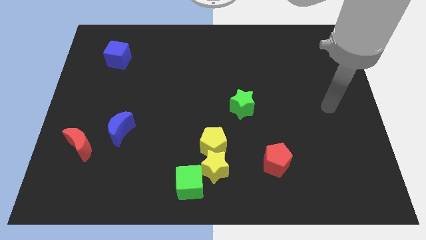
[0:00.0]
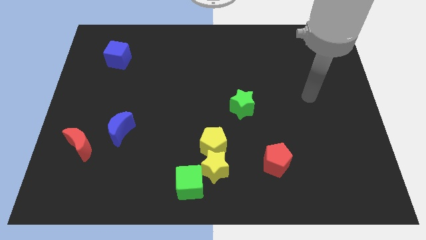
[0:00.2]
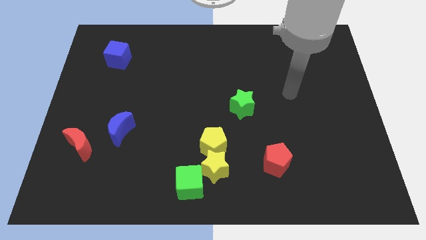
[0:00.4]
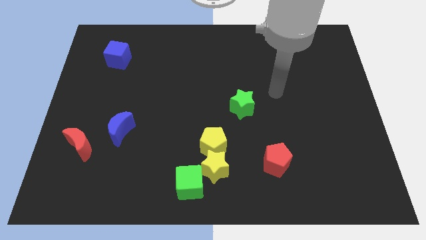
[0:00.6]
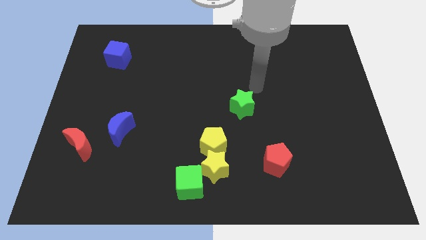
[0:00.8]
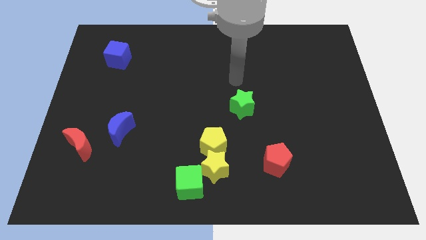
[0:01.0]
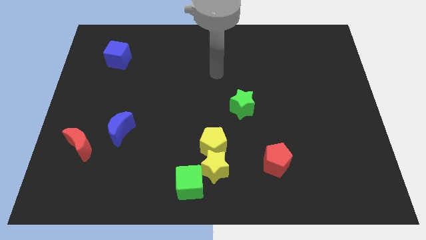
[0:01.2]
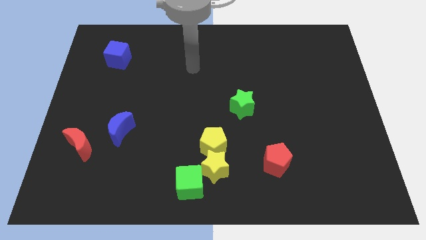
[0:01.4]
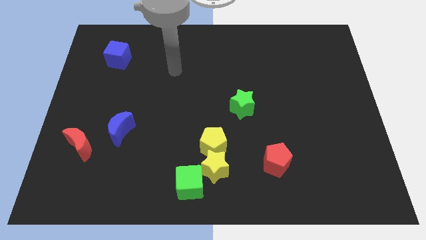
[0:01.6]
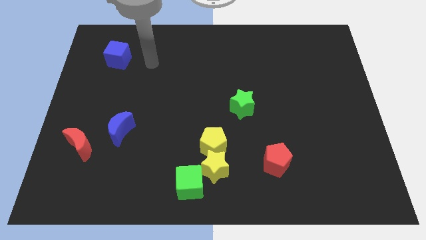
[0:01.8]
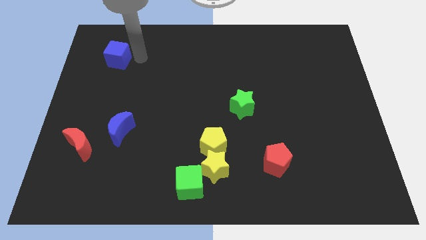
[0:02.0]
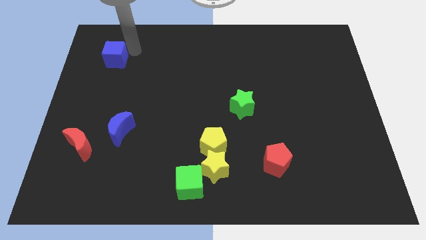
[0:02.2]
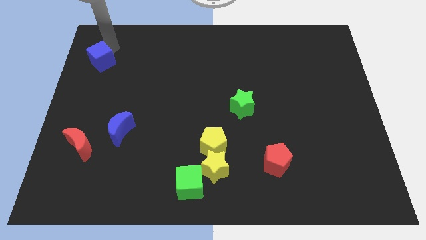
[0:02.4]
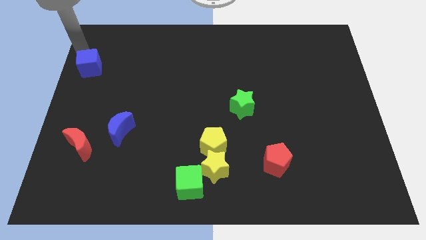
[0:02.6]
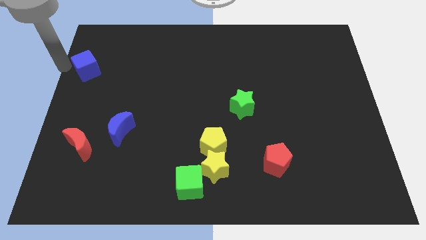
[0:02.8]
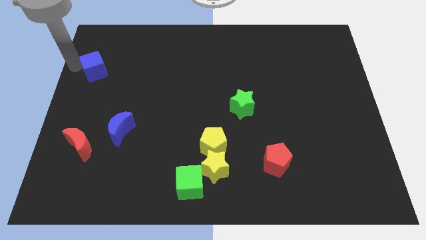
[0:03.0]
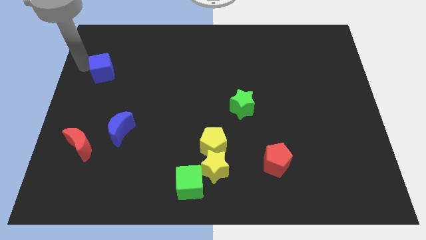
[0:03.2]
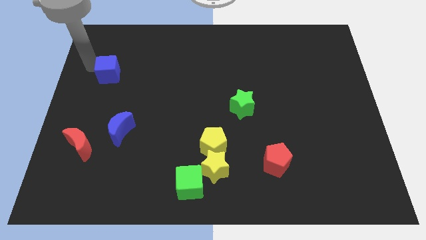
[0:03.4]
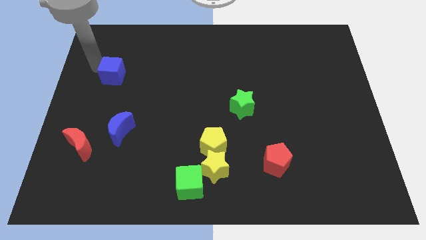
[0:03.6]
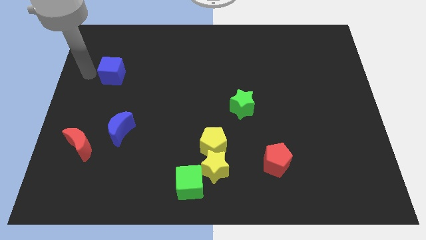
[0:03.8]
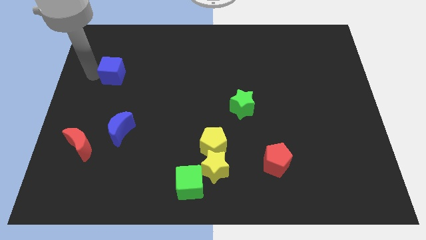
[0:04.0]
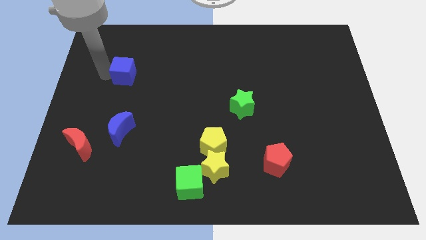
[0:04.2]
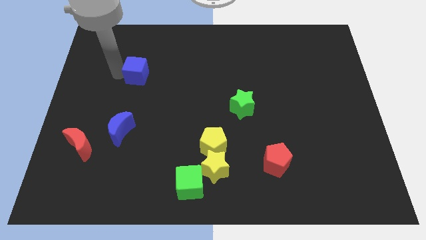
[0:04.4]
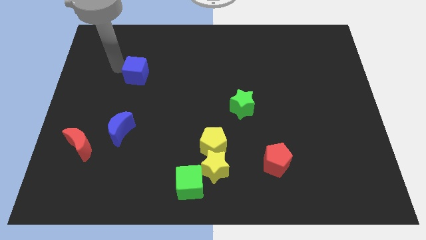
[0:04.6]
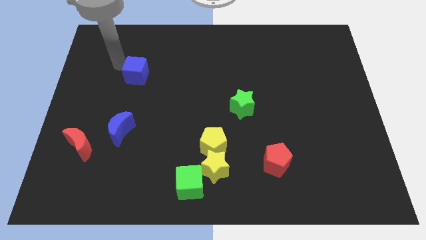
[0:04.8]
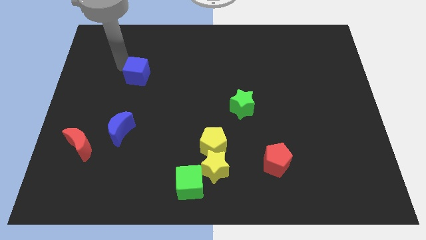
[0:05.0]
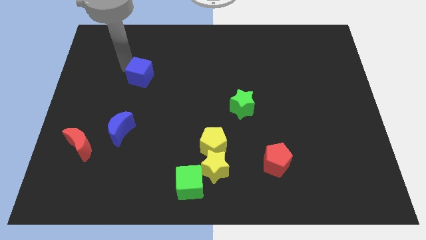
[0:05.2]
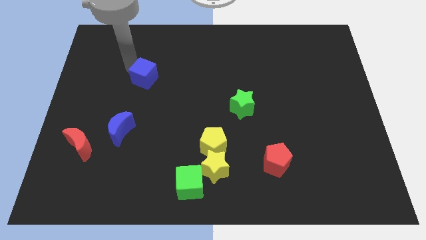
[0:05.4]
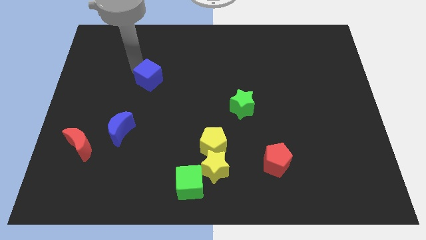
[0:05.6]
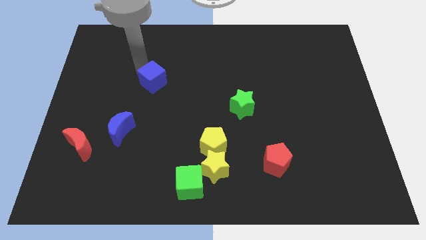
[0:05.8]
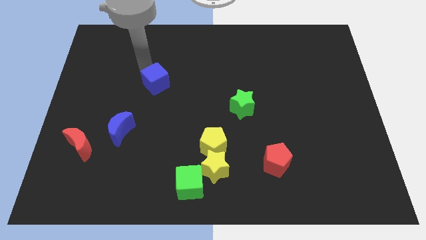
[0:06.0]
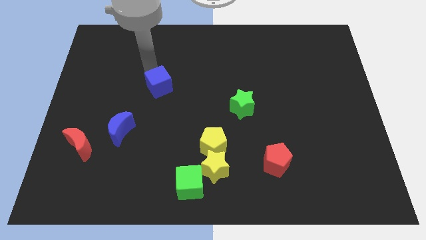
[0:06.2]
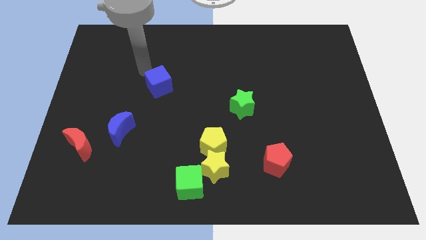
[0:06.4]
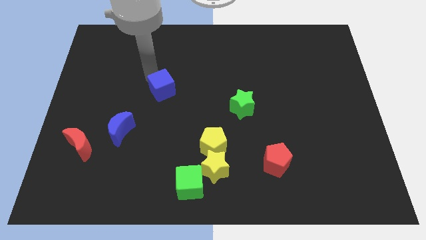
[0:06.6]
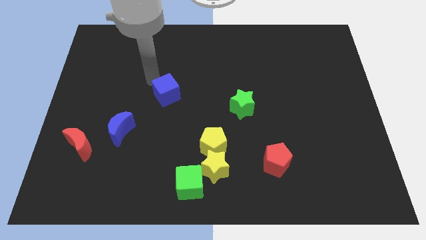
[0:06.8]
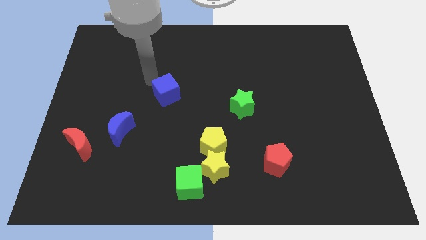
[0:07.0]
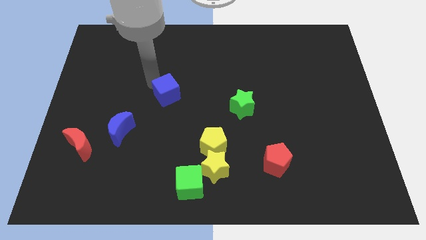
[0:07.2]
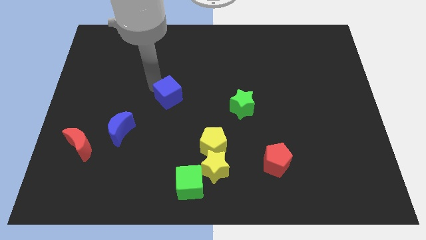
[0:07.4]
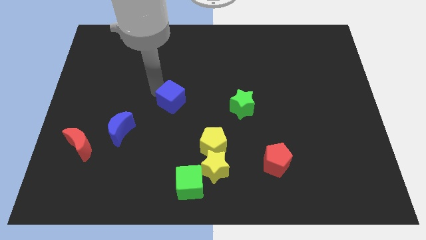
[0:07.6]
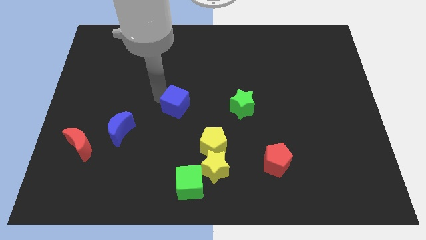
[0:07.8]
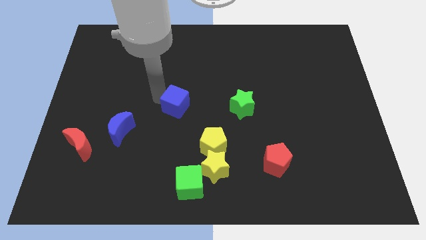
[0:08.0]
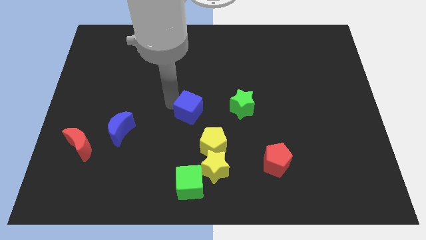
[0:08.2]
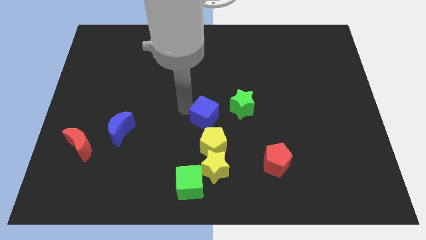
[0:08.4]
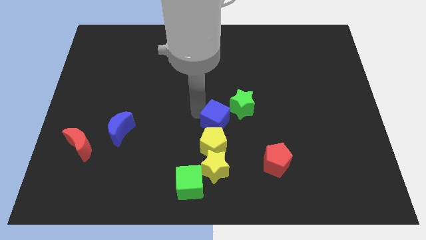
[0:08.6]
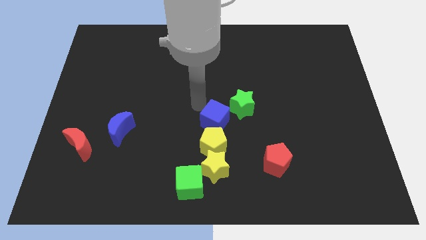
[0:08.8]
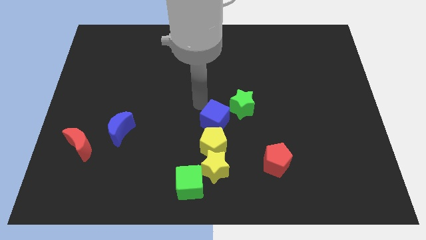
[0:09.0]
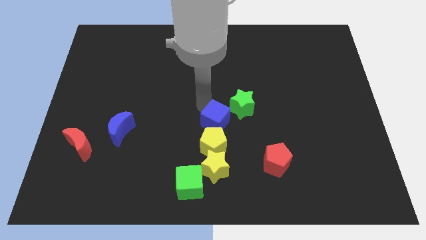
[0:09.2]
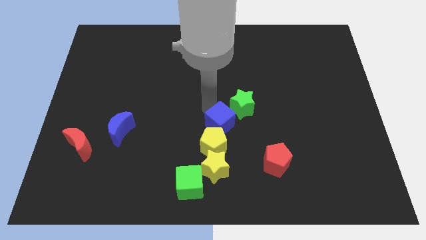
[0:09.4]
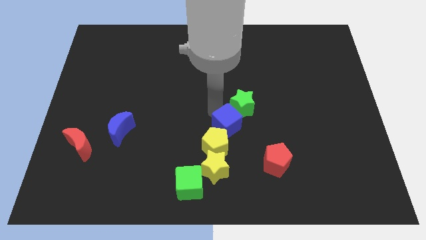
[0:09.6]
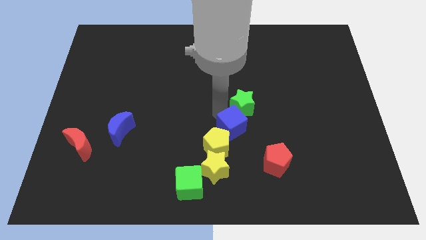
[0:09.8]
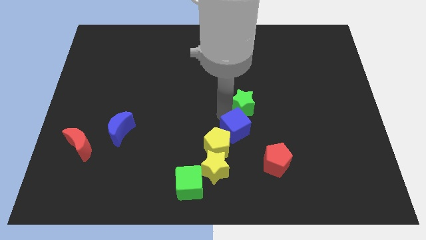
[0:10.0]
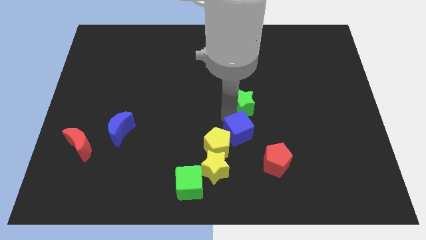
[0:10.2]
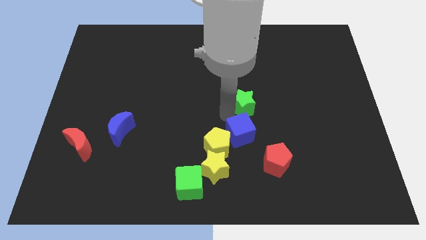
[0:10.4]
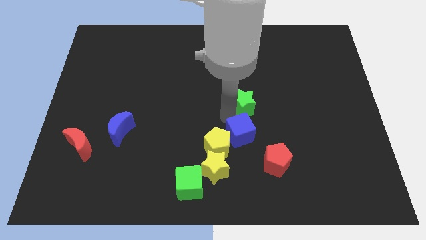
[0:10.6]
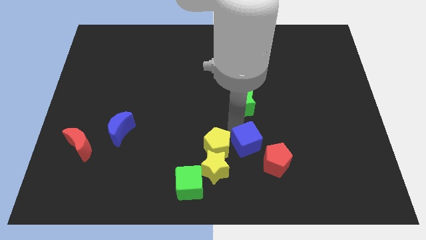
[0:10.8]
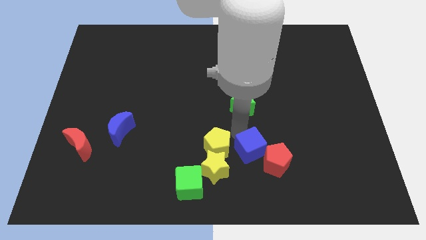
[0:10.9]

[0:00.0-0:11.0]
put the blue cube close to the red pentagon

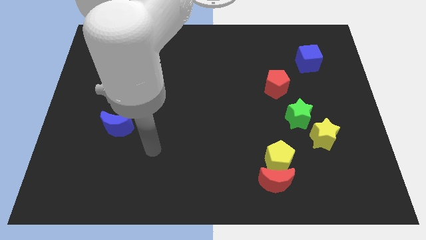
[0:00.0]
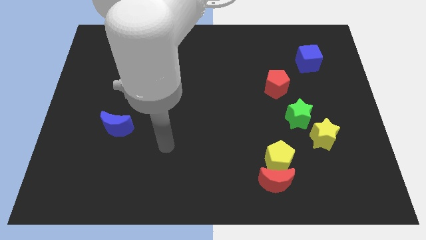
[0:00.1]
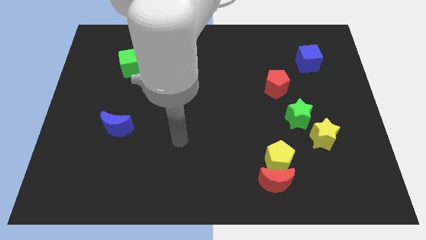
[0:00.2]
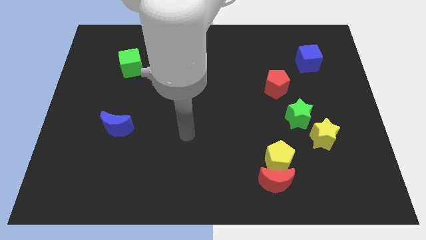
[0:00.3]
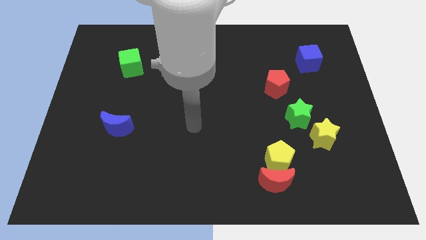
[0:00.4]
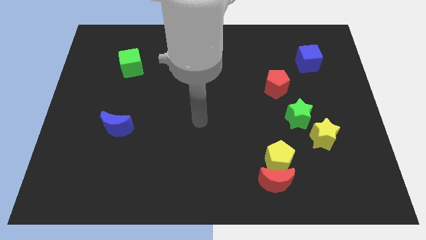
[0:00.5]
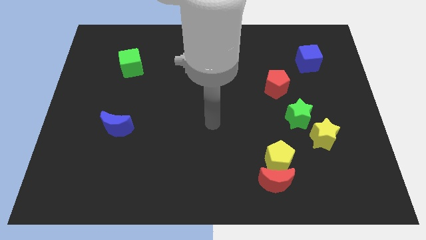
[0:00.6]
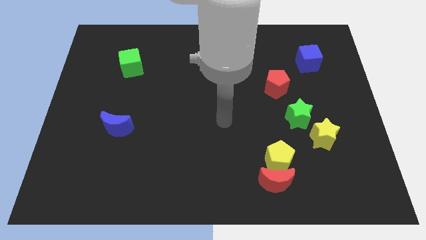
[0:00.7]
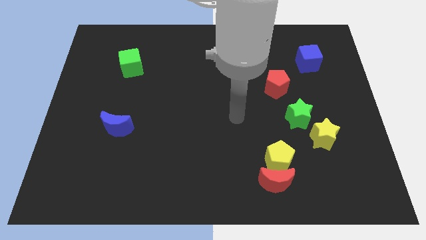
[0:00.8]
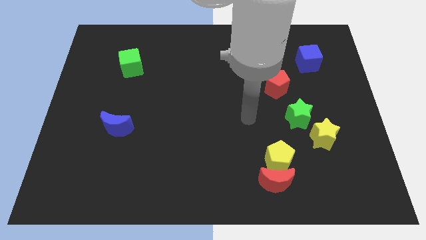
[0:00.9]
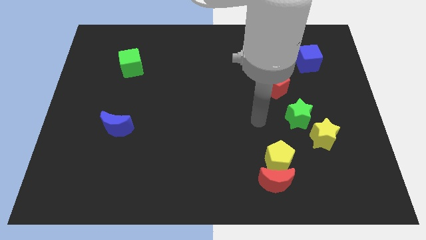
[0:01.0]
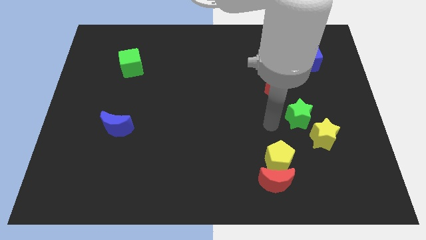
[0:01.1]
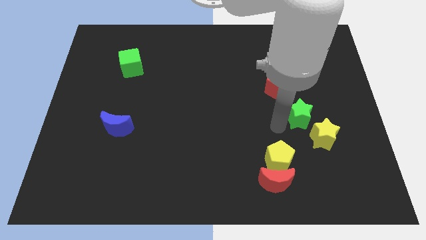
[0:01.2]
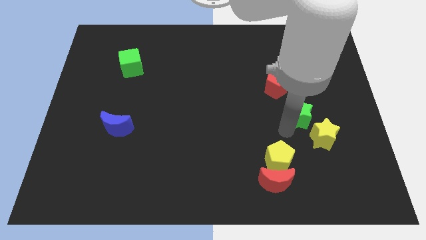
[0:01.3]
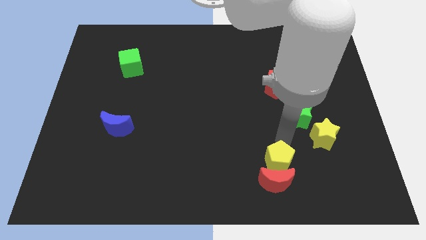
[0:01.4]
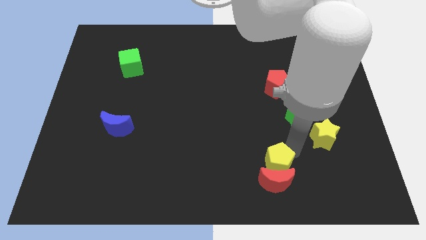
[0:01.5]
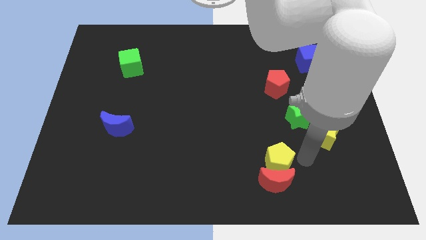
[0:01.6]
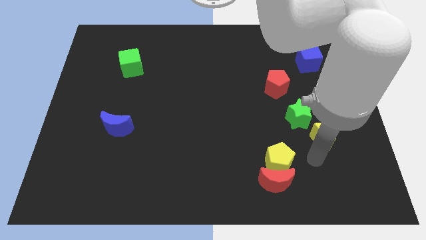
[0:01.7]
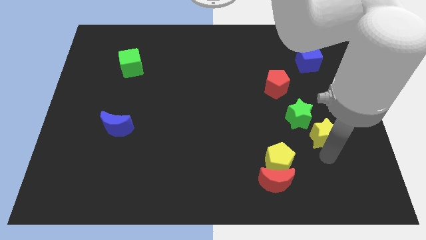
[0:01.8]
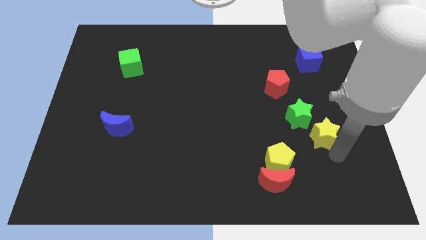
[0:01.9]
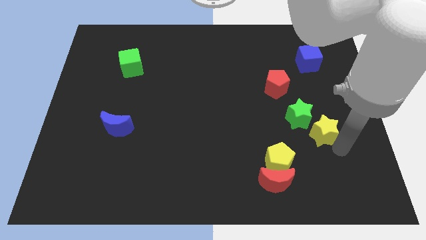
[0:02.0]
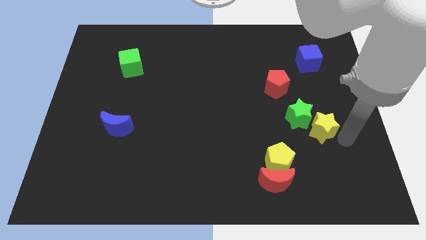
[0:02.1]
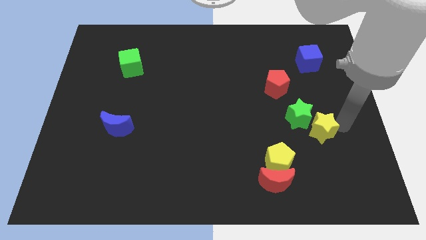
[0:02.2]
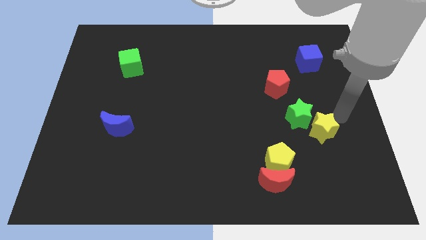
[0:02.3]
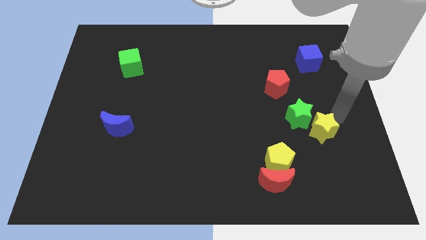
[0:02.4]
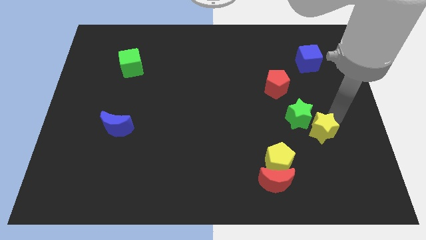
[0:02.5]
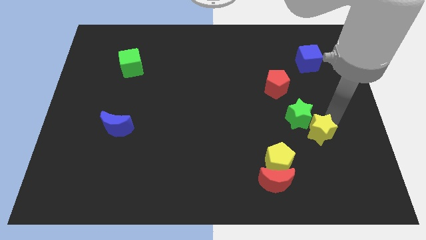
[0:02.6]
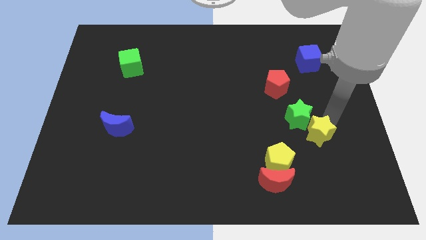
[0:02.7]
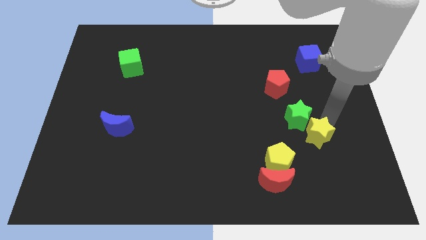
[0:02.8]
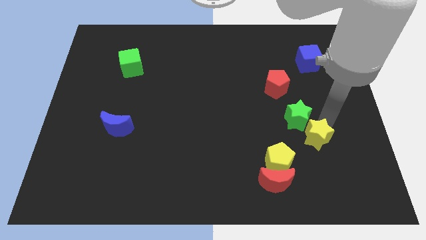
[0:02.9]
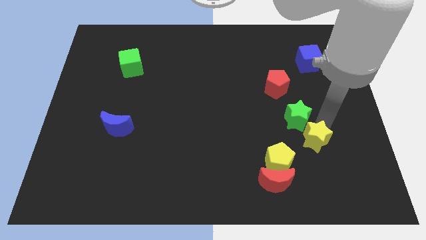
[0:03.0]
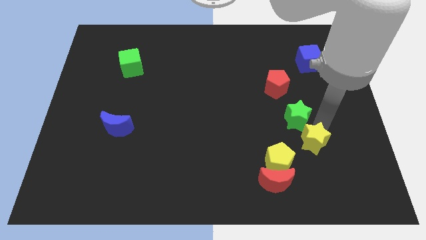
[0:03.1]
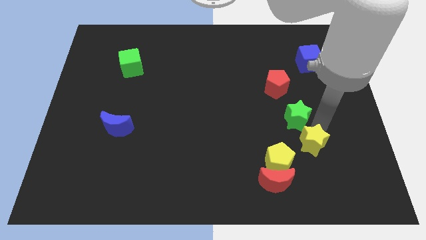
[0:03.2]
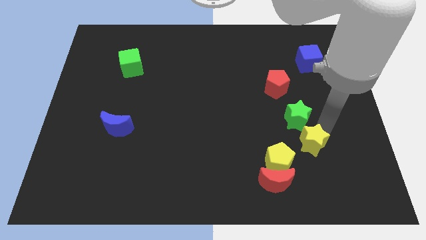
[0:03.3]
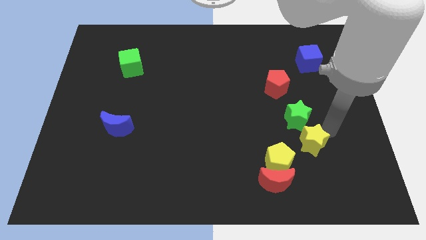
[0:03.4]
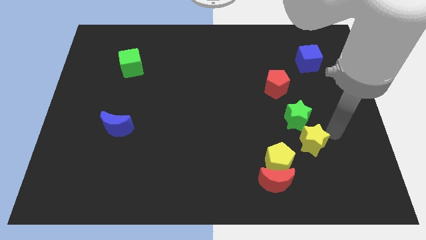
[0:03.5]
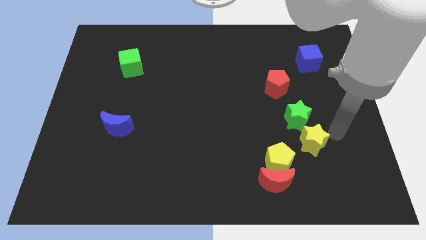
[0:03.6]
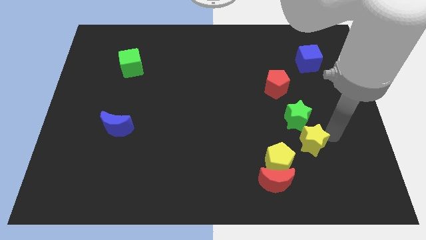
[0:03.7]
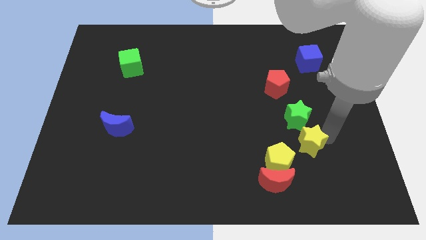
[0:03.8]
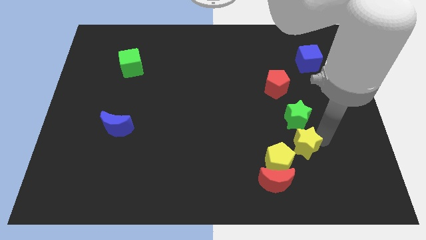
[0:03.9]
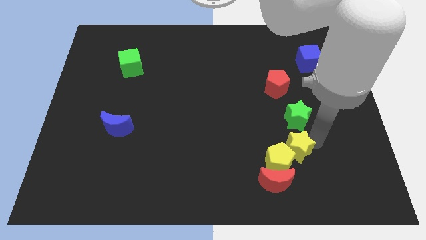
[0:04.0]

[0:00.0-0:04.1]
put the yellow star towards the yellow pentagon
